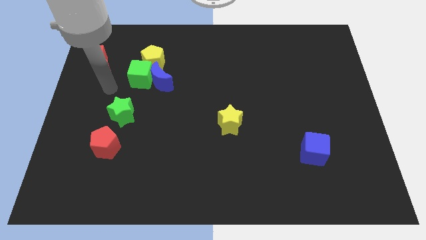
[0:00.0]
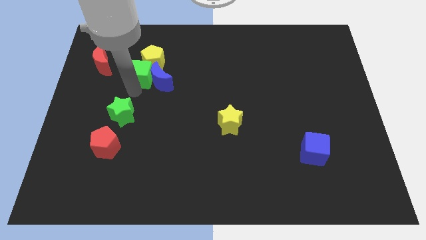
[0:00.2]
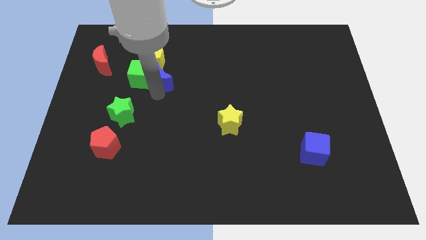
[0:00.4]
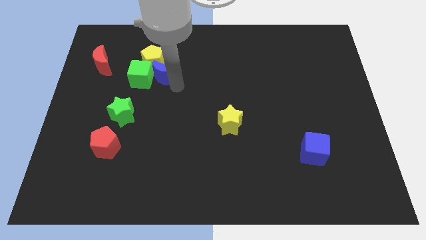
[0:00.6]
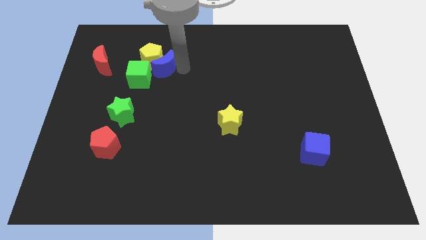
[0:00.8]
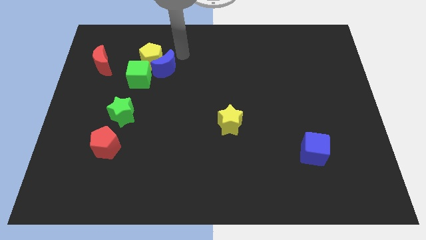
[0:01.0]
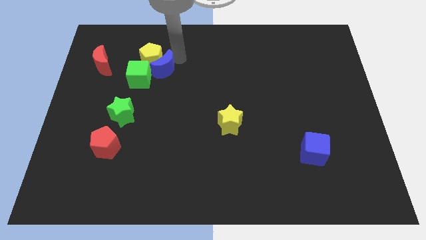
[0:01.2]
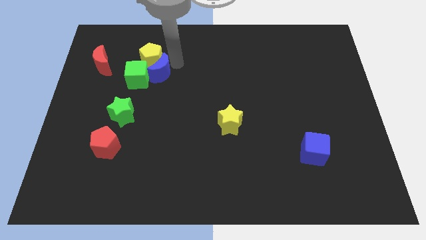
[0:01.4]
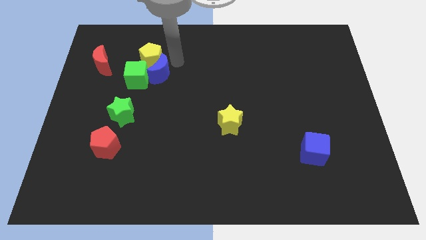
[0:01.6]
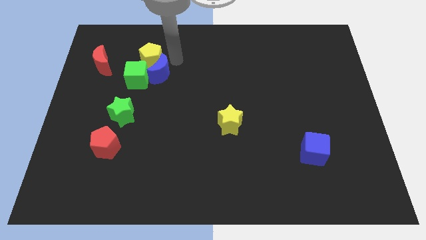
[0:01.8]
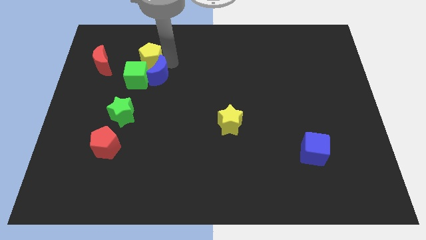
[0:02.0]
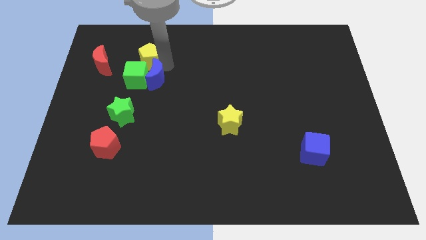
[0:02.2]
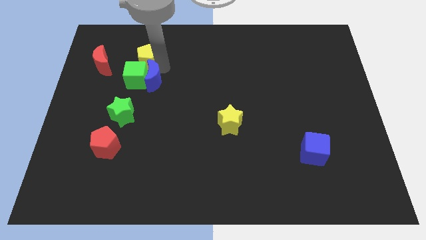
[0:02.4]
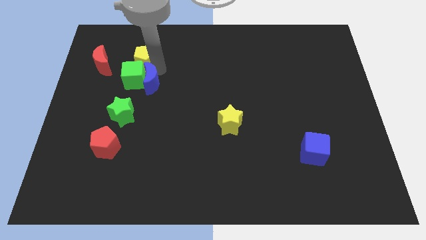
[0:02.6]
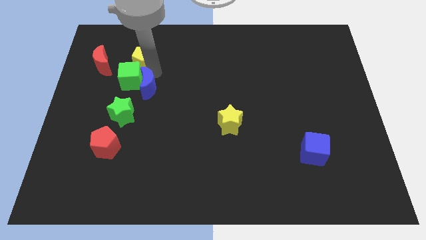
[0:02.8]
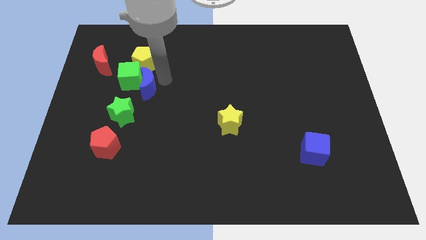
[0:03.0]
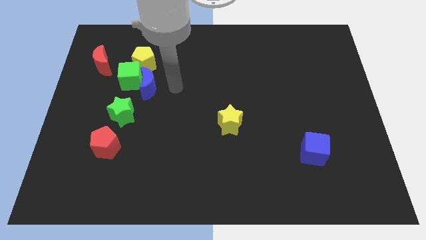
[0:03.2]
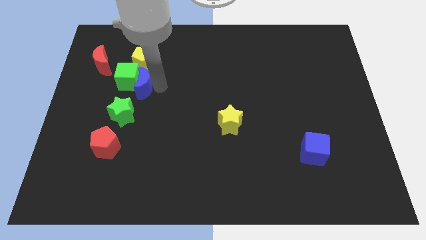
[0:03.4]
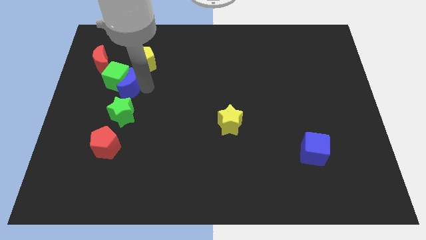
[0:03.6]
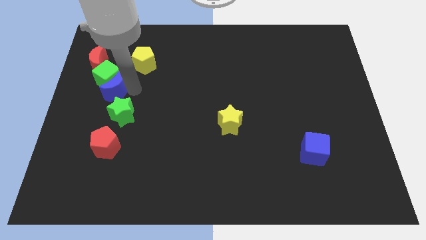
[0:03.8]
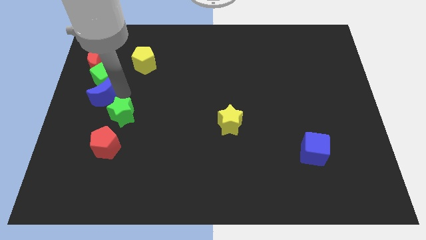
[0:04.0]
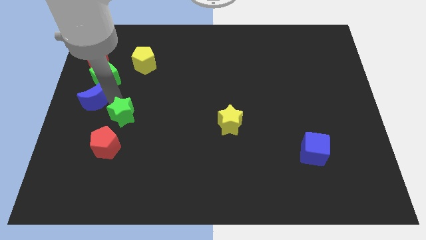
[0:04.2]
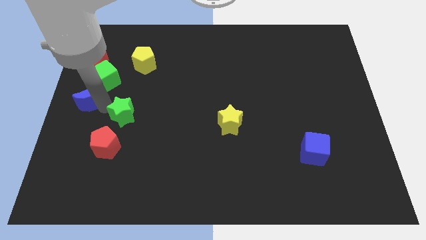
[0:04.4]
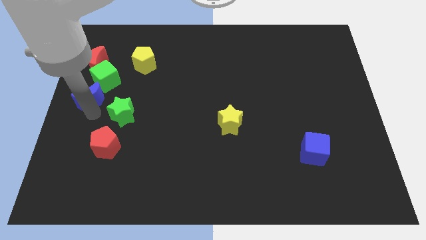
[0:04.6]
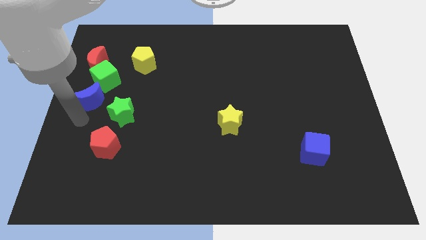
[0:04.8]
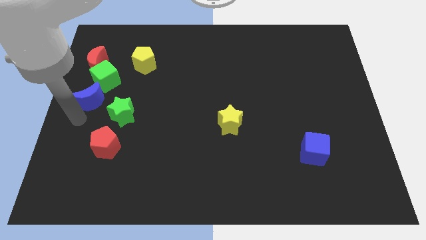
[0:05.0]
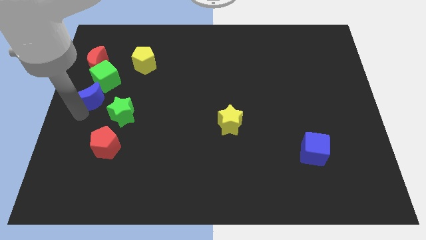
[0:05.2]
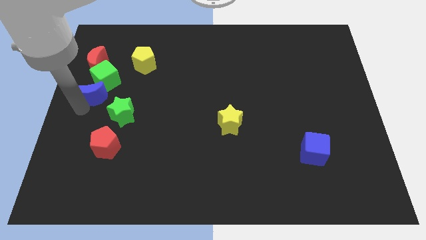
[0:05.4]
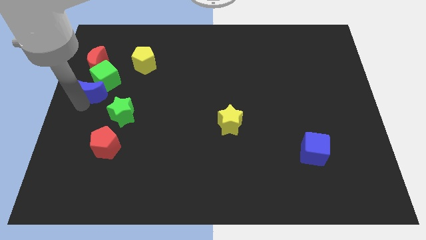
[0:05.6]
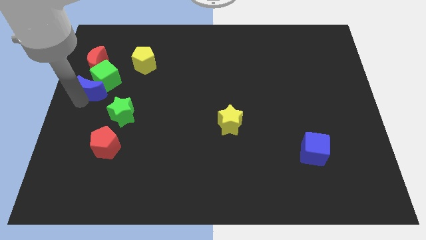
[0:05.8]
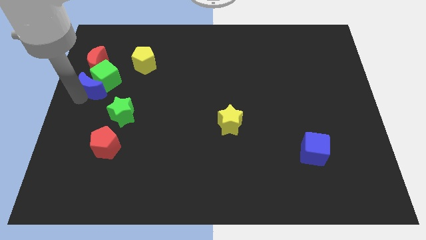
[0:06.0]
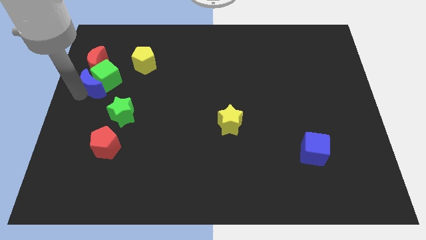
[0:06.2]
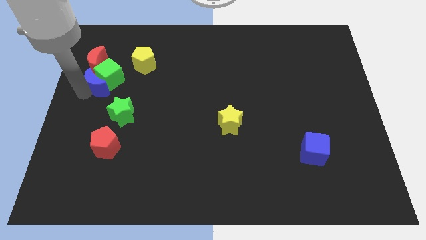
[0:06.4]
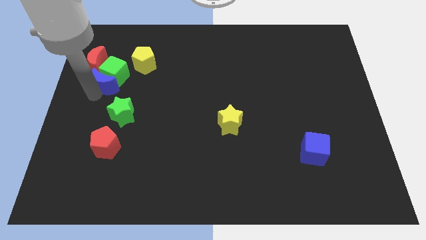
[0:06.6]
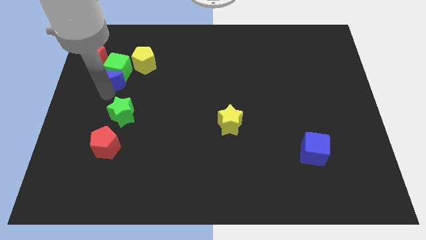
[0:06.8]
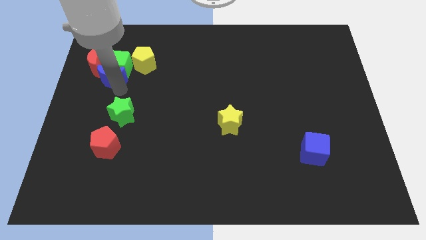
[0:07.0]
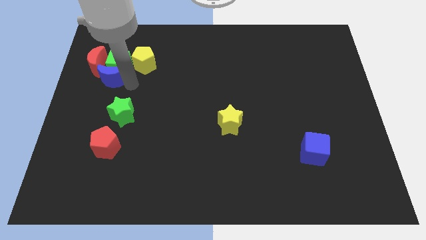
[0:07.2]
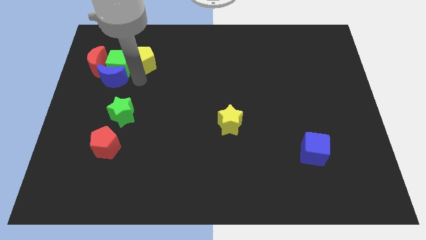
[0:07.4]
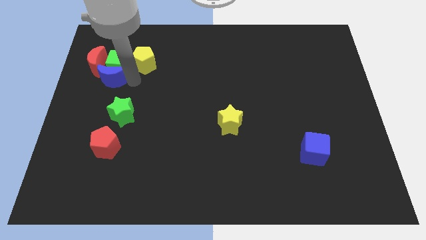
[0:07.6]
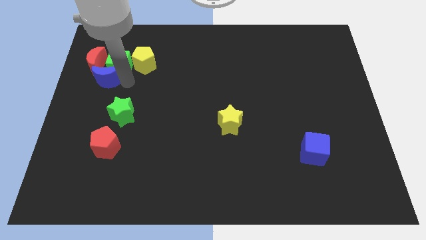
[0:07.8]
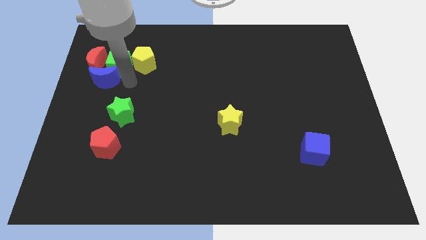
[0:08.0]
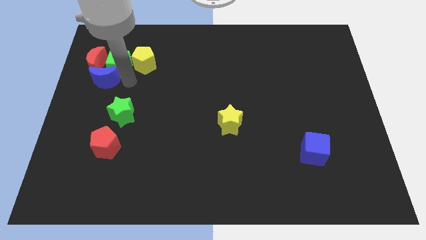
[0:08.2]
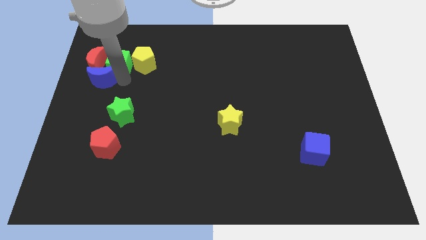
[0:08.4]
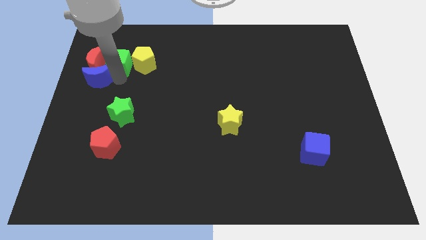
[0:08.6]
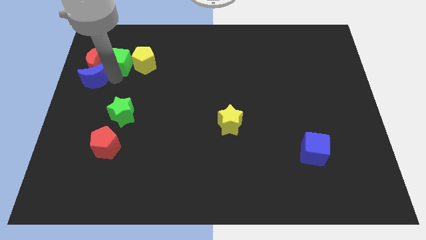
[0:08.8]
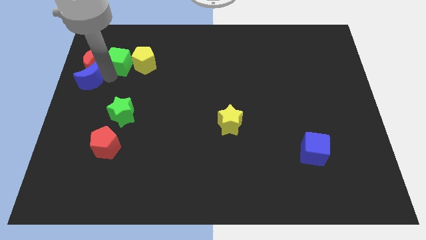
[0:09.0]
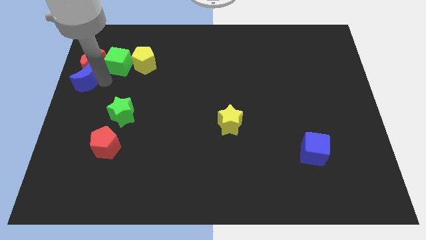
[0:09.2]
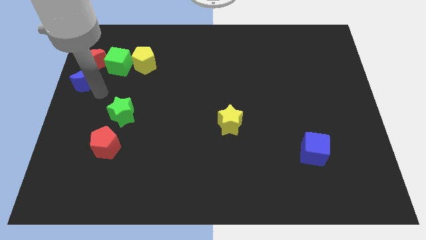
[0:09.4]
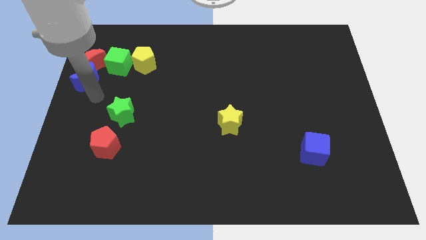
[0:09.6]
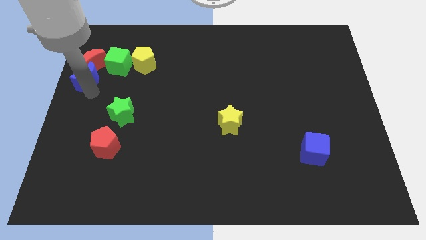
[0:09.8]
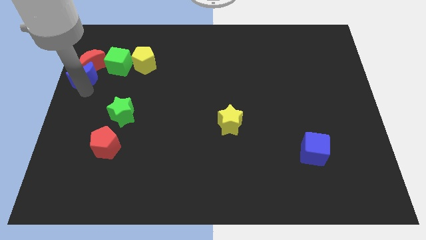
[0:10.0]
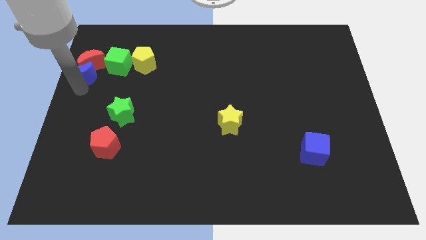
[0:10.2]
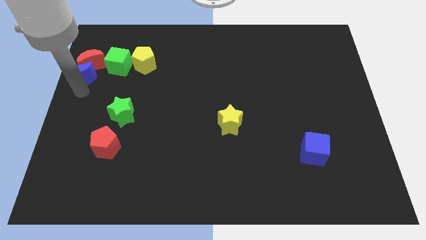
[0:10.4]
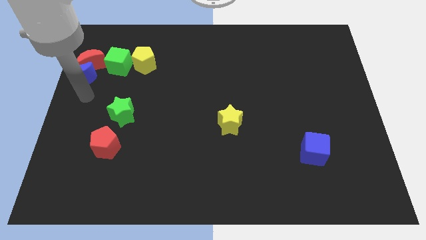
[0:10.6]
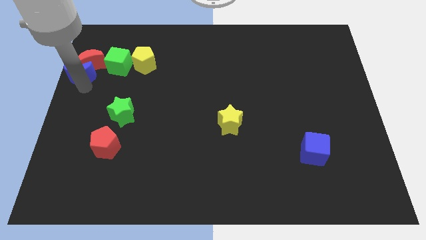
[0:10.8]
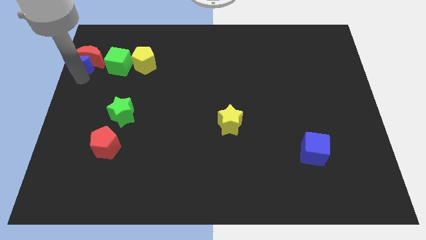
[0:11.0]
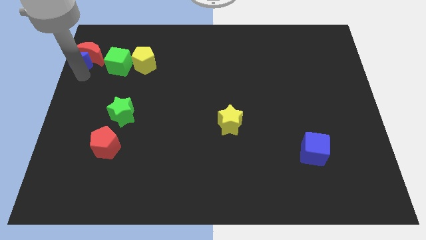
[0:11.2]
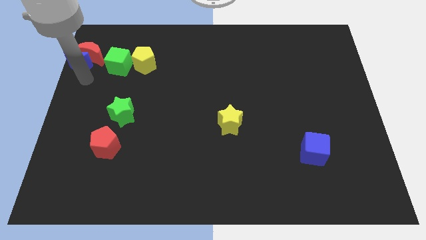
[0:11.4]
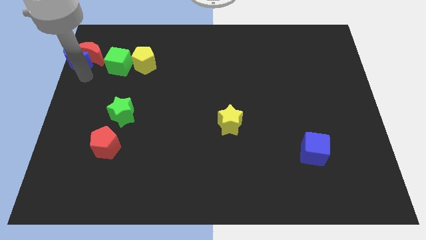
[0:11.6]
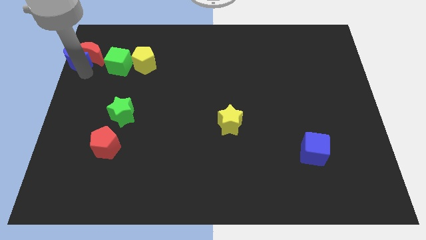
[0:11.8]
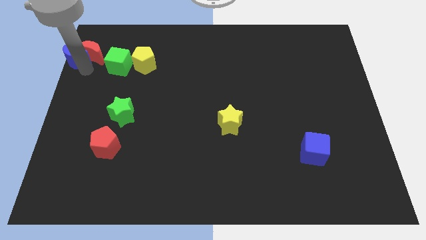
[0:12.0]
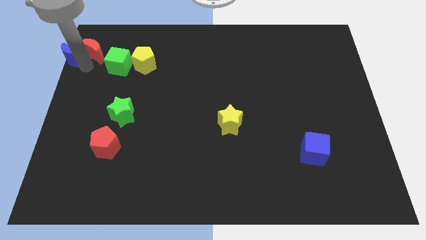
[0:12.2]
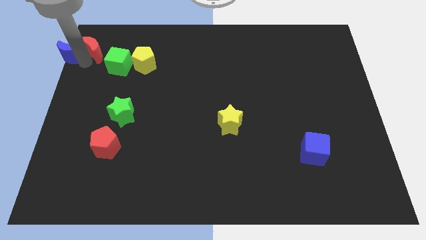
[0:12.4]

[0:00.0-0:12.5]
push the blue moon to the upper left corner

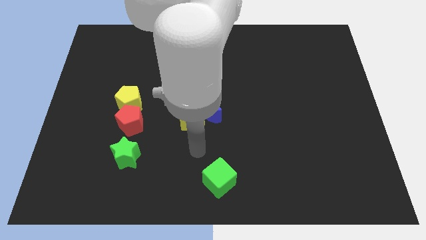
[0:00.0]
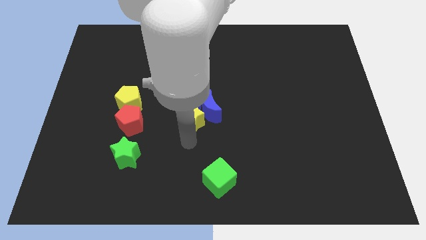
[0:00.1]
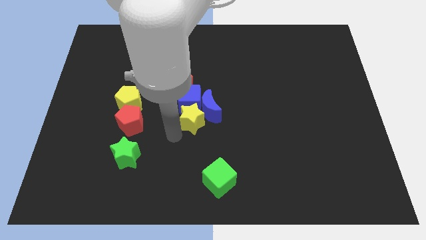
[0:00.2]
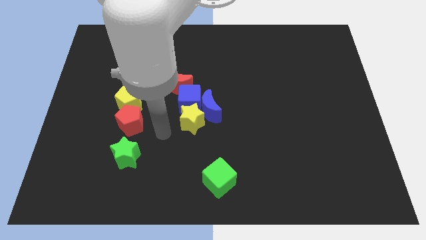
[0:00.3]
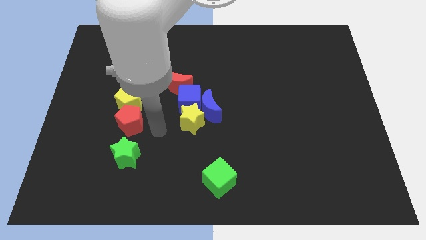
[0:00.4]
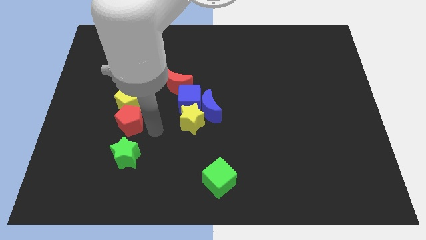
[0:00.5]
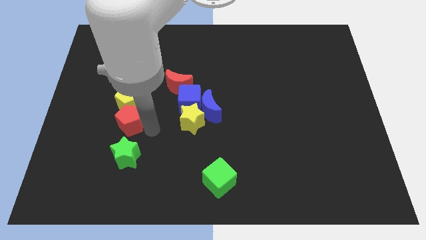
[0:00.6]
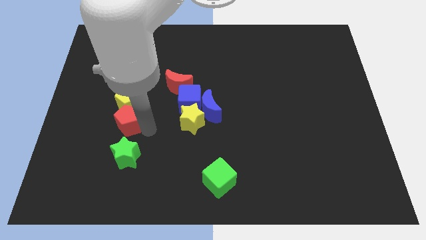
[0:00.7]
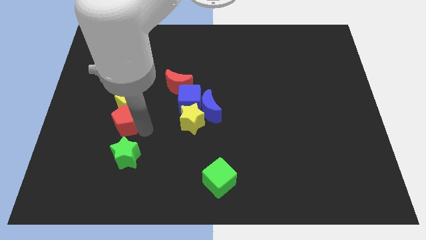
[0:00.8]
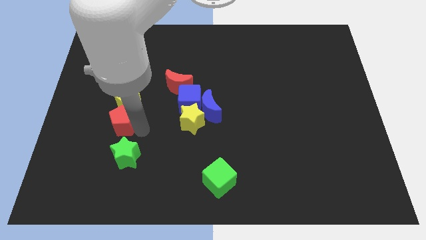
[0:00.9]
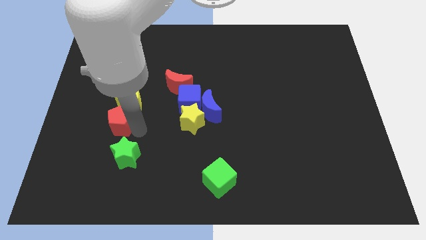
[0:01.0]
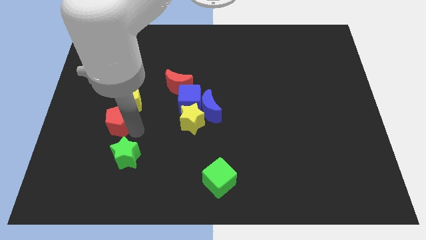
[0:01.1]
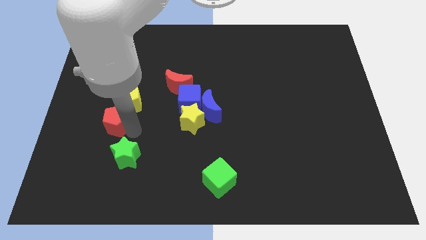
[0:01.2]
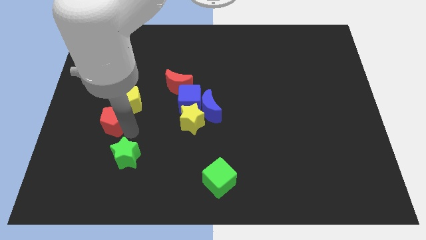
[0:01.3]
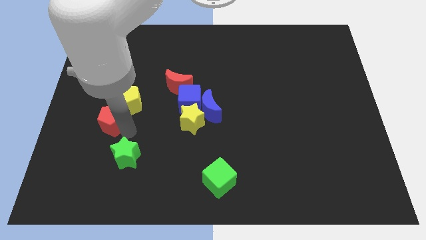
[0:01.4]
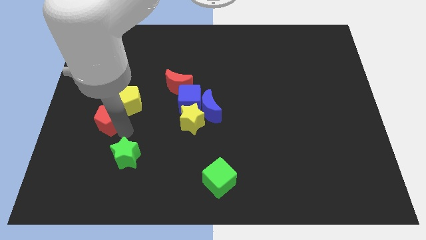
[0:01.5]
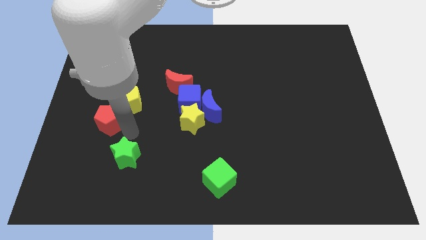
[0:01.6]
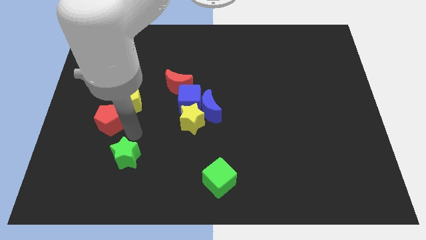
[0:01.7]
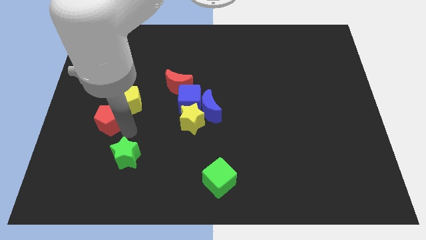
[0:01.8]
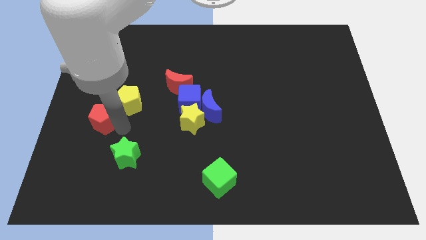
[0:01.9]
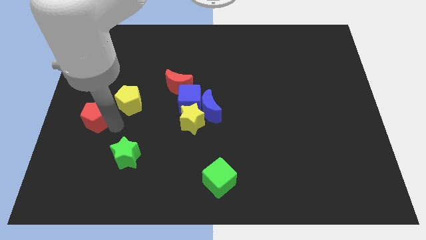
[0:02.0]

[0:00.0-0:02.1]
push the red pentagon to the center left
